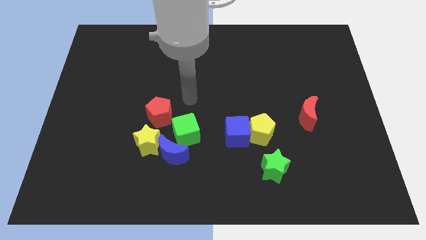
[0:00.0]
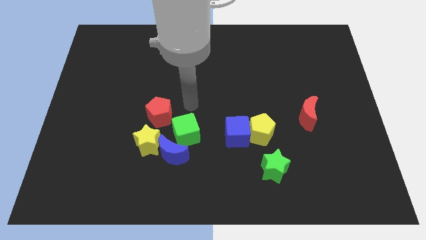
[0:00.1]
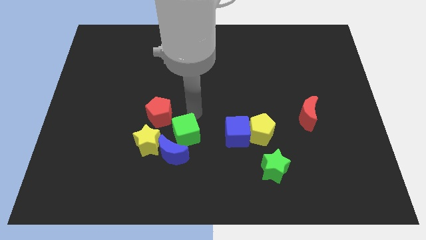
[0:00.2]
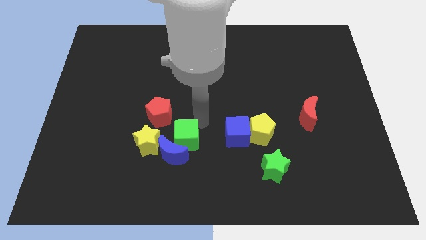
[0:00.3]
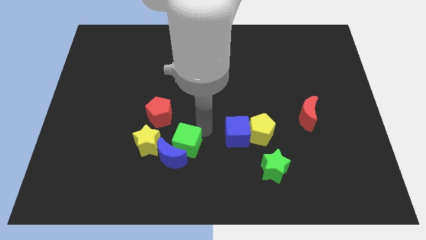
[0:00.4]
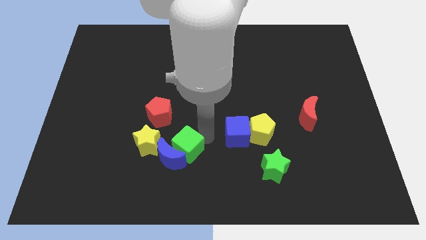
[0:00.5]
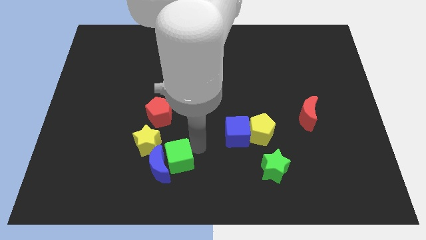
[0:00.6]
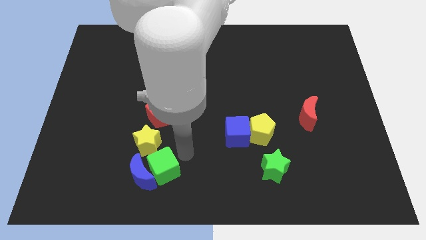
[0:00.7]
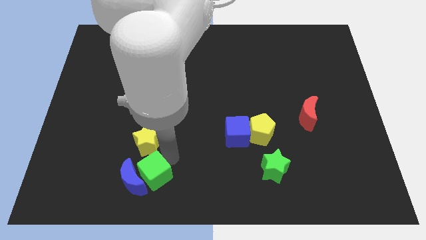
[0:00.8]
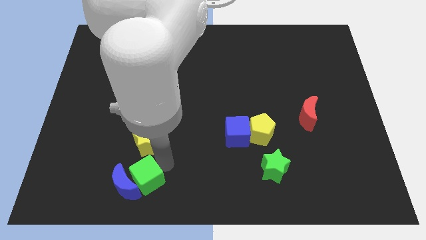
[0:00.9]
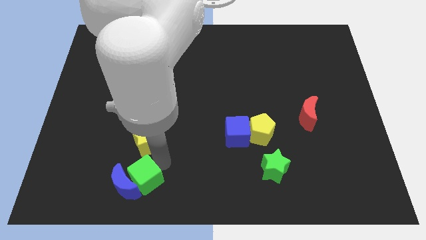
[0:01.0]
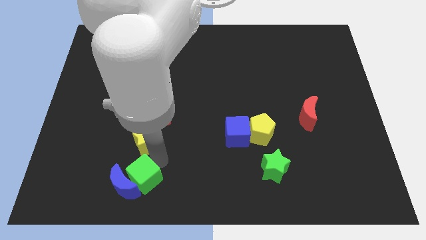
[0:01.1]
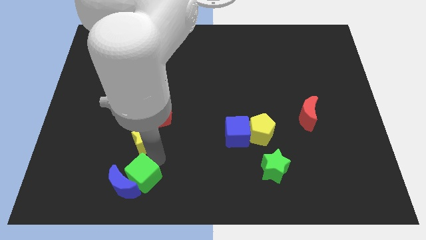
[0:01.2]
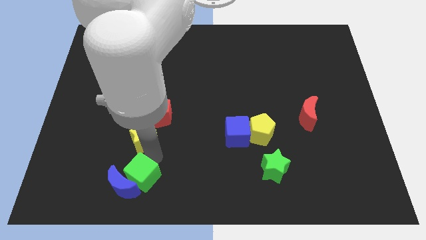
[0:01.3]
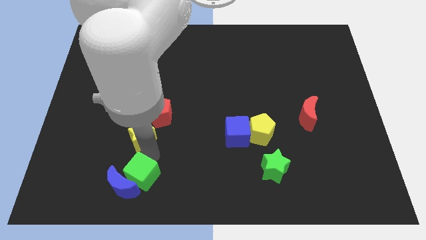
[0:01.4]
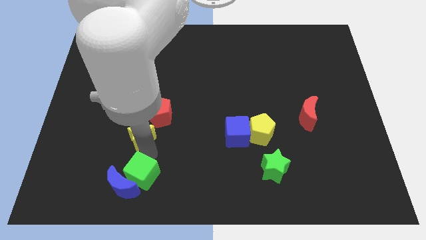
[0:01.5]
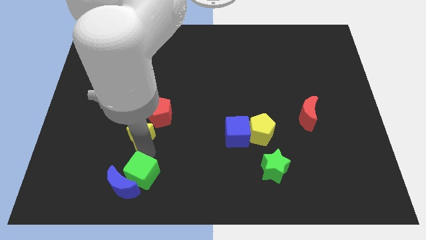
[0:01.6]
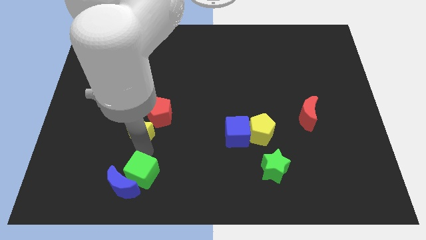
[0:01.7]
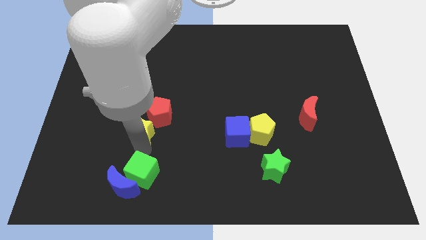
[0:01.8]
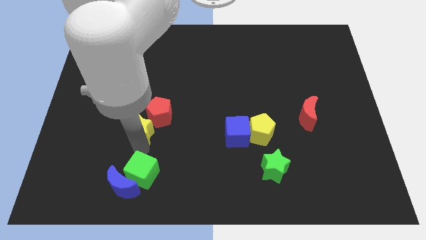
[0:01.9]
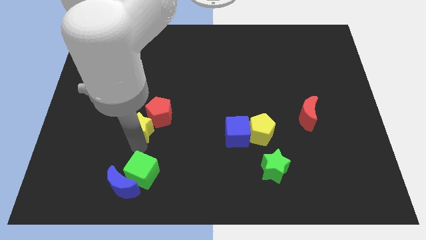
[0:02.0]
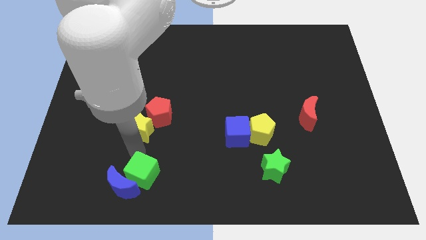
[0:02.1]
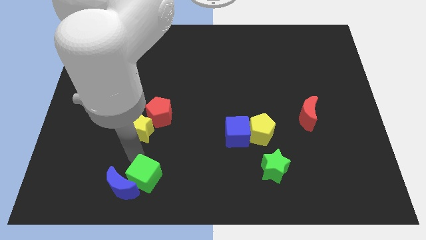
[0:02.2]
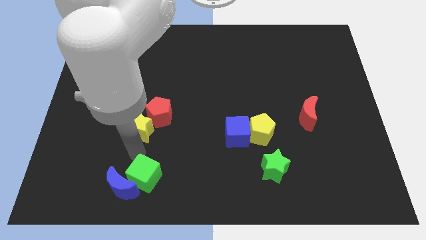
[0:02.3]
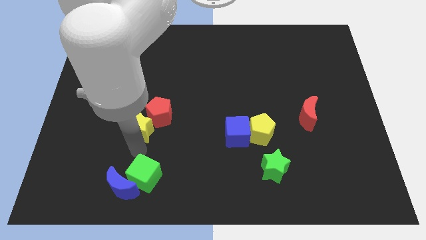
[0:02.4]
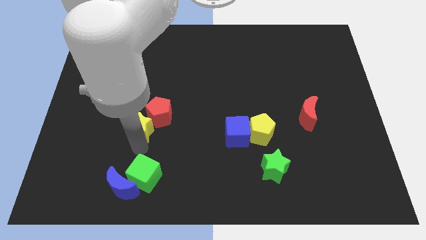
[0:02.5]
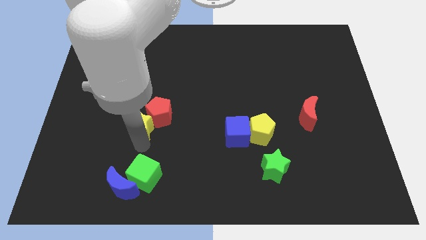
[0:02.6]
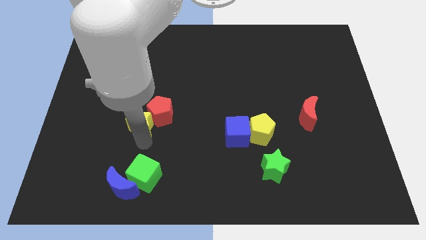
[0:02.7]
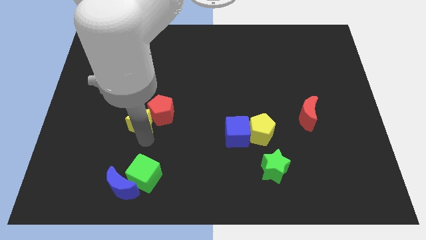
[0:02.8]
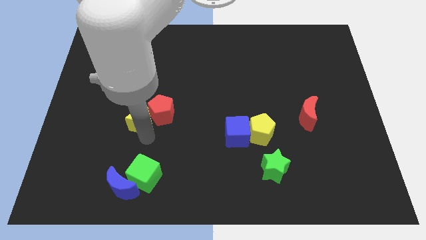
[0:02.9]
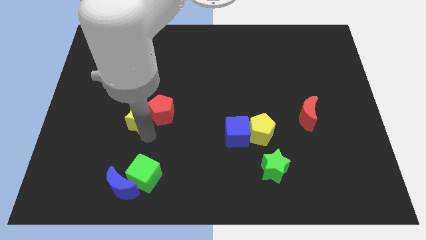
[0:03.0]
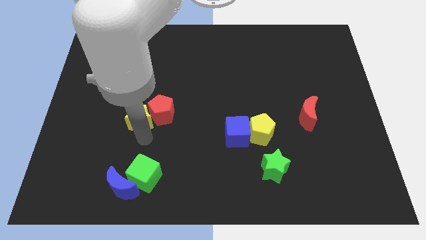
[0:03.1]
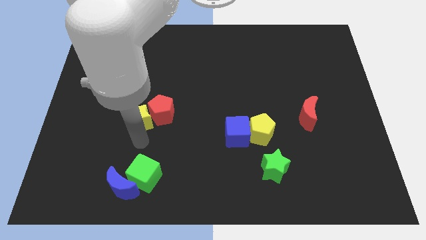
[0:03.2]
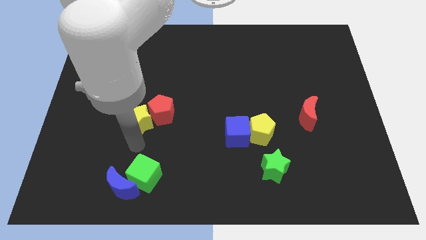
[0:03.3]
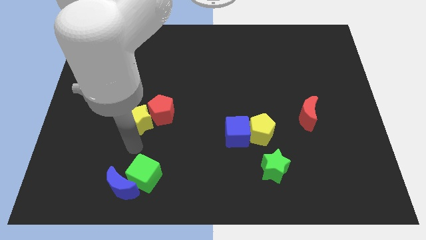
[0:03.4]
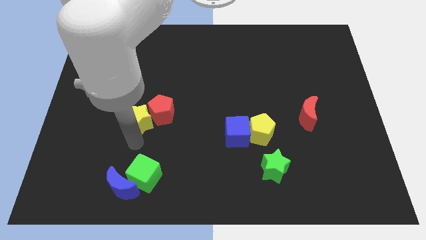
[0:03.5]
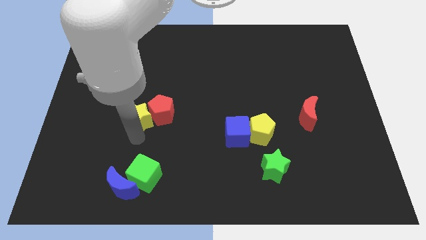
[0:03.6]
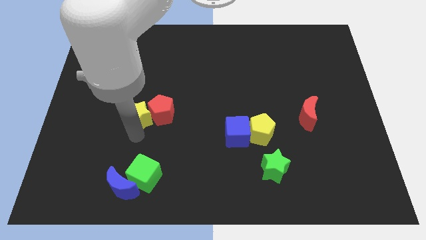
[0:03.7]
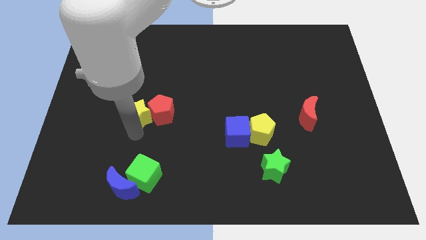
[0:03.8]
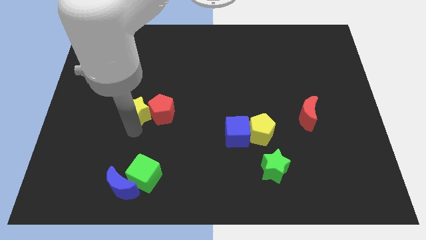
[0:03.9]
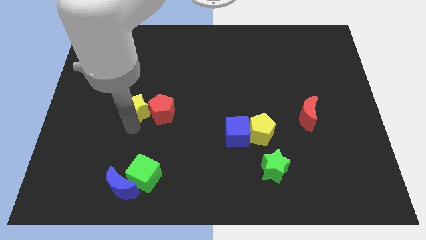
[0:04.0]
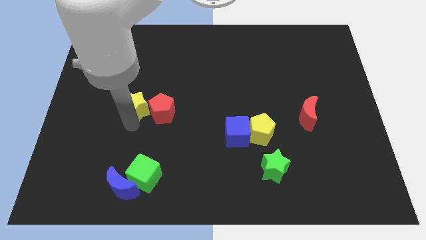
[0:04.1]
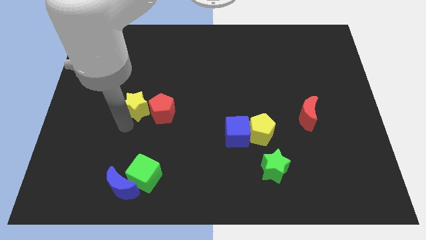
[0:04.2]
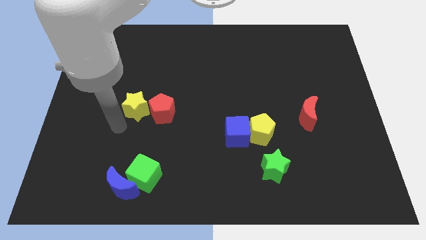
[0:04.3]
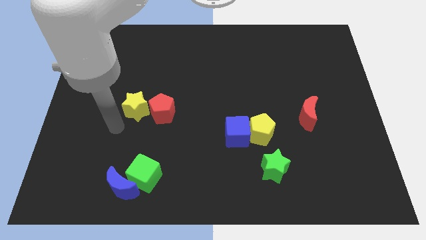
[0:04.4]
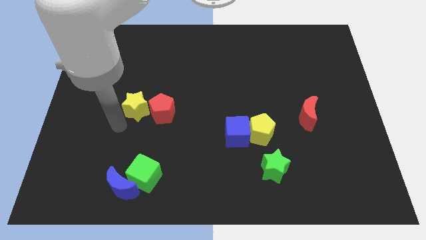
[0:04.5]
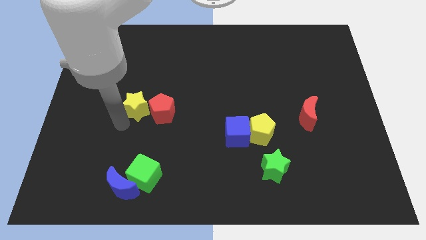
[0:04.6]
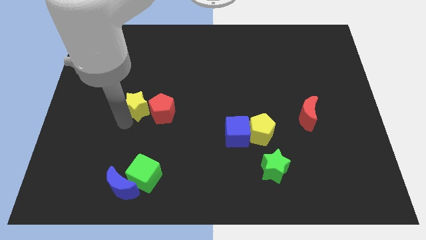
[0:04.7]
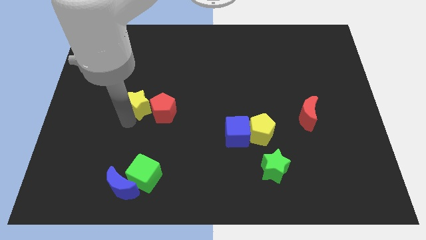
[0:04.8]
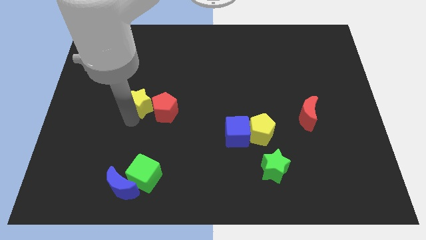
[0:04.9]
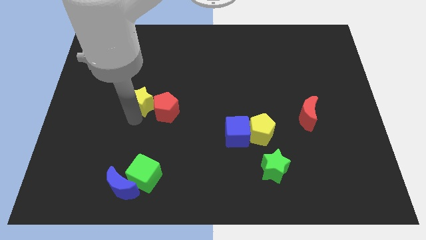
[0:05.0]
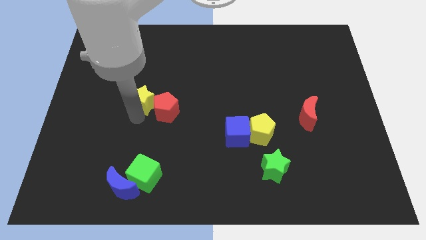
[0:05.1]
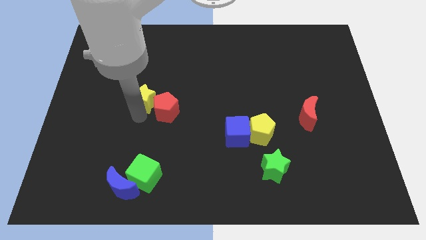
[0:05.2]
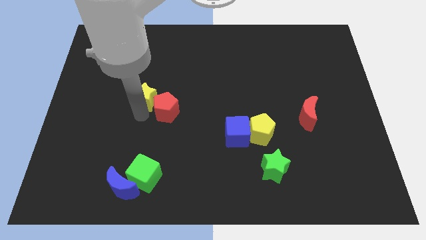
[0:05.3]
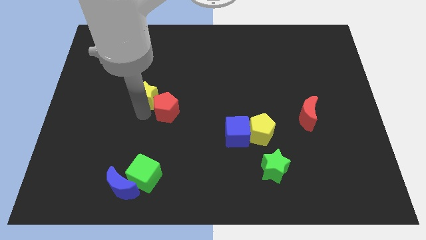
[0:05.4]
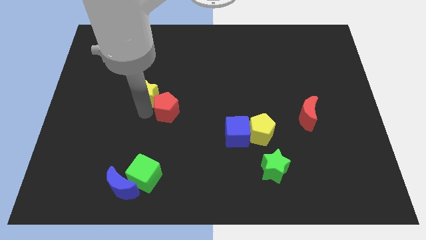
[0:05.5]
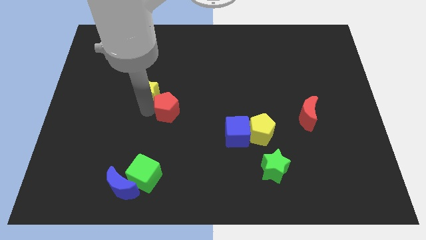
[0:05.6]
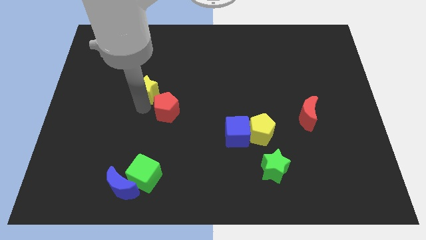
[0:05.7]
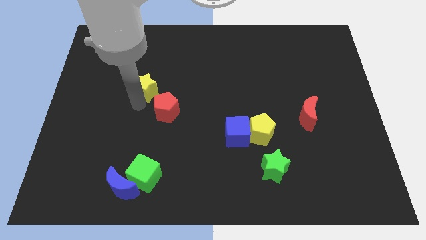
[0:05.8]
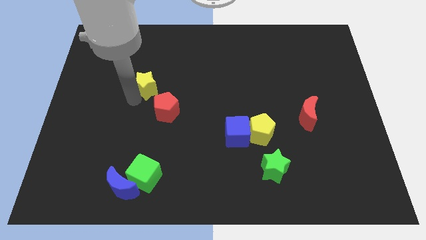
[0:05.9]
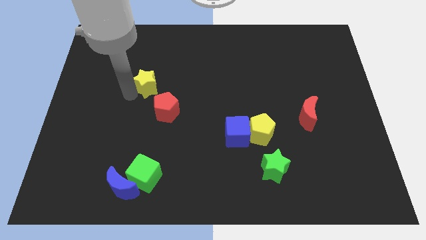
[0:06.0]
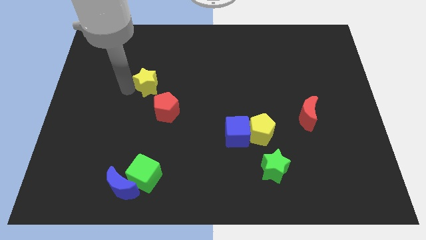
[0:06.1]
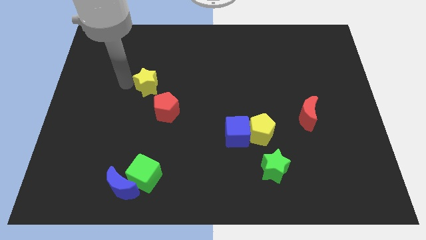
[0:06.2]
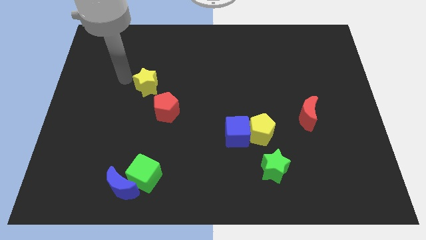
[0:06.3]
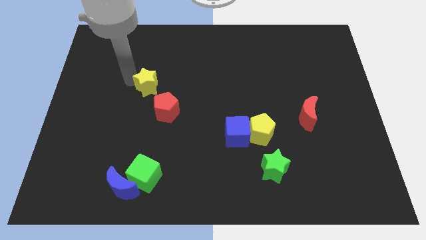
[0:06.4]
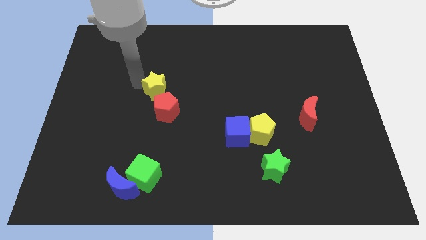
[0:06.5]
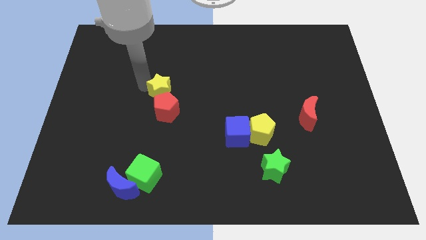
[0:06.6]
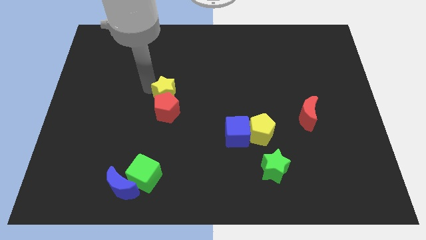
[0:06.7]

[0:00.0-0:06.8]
put the yellow star to the middle
